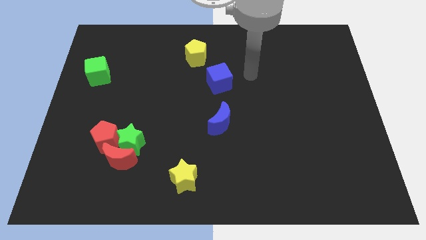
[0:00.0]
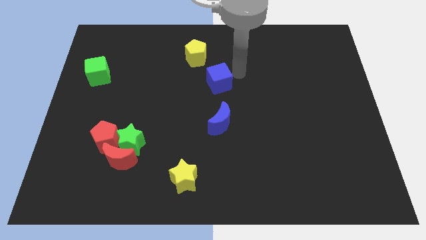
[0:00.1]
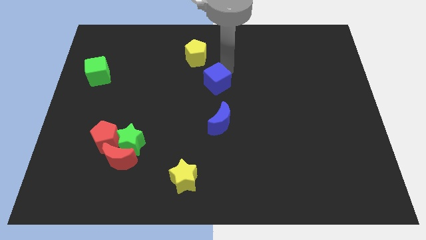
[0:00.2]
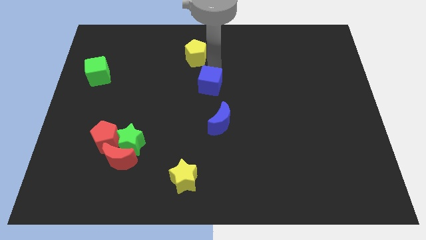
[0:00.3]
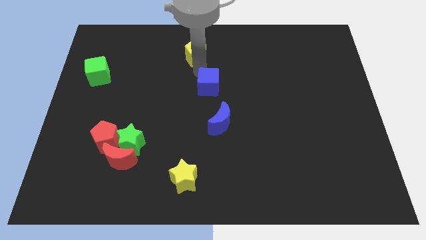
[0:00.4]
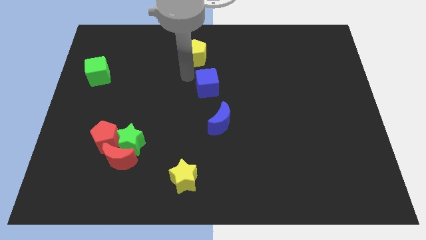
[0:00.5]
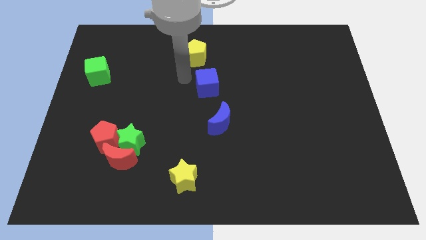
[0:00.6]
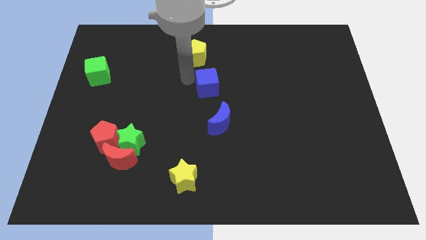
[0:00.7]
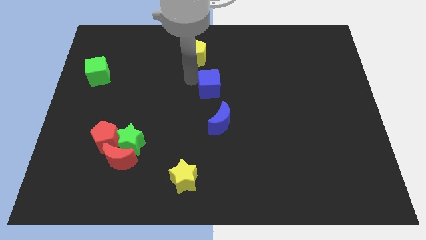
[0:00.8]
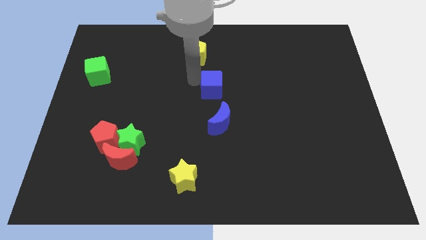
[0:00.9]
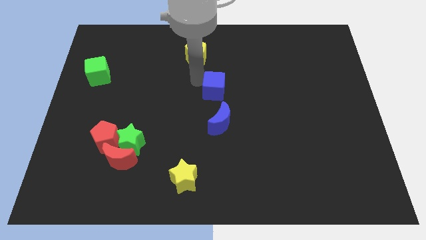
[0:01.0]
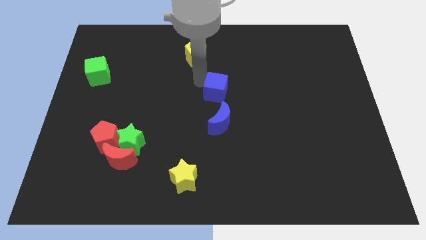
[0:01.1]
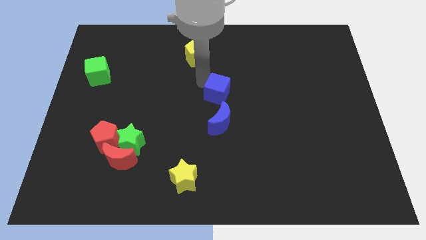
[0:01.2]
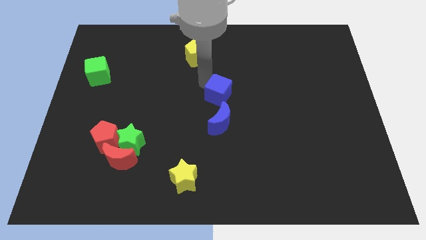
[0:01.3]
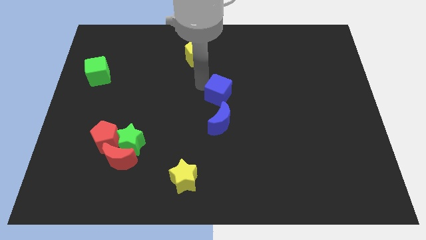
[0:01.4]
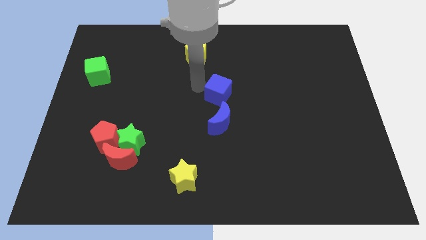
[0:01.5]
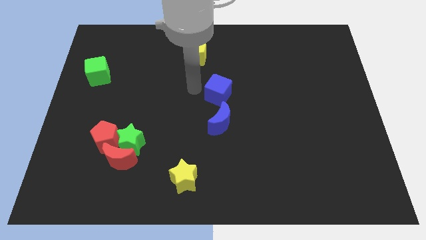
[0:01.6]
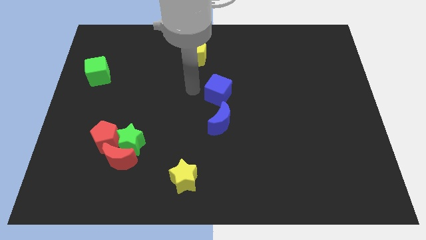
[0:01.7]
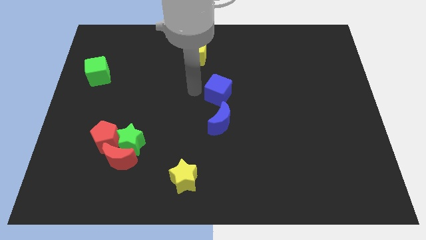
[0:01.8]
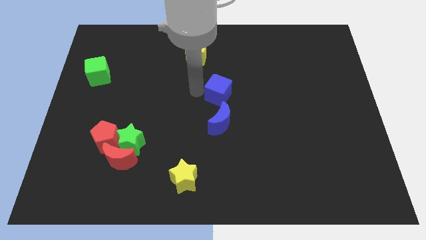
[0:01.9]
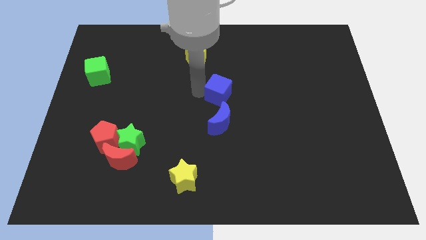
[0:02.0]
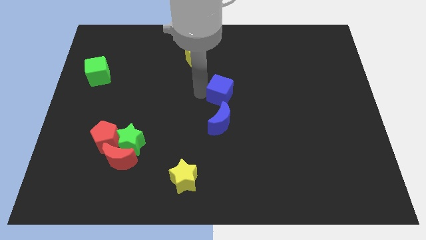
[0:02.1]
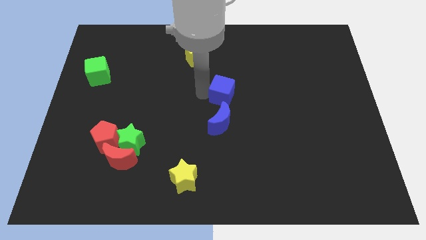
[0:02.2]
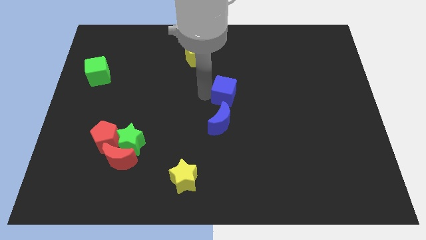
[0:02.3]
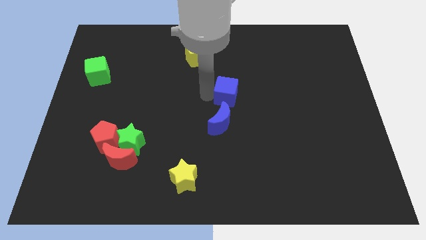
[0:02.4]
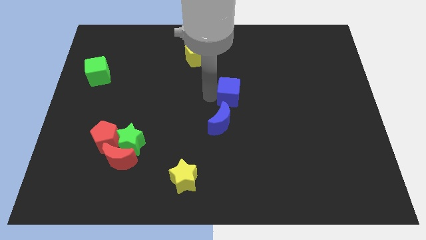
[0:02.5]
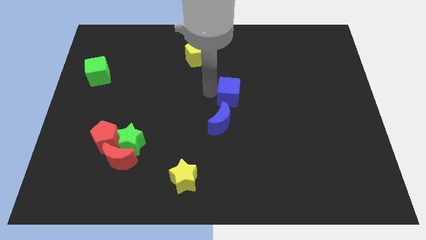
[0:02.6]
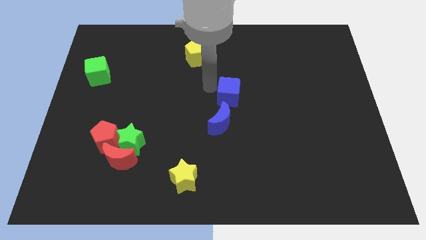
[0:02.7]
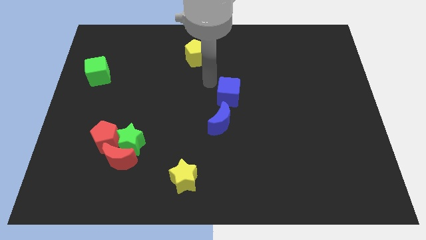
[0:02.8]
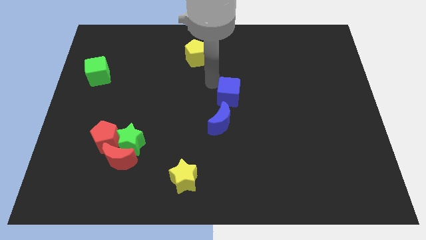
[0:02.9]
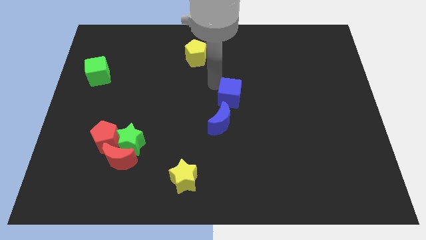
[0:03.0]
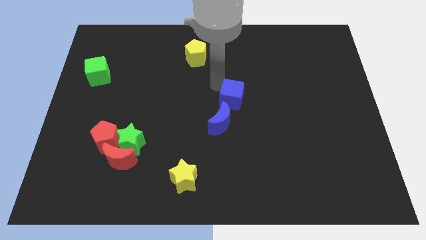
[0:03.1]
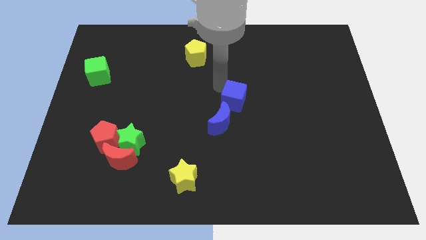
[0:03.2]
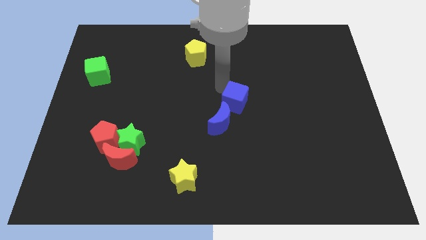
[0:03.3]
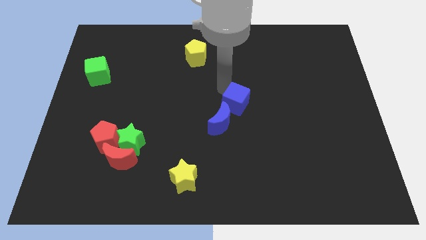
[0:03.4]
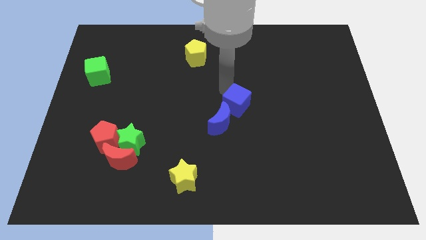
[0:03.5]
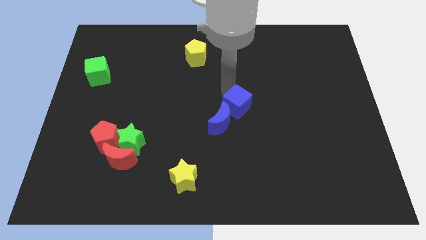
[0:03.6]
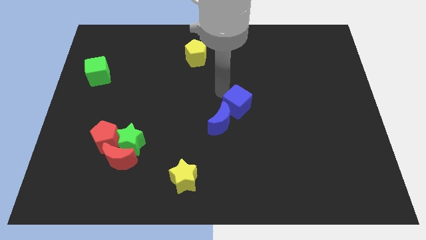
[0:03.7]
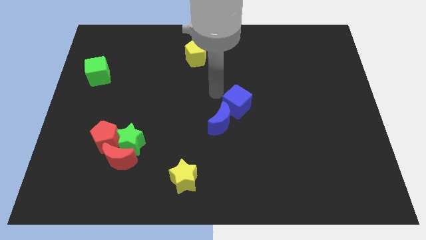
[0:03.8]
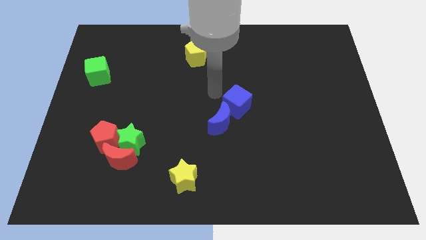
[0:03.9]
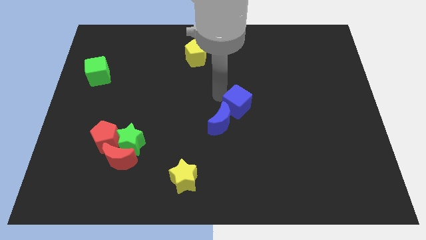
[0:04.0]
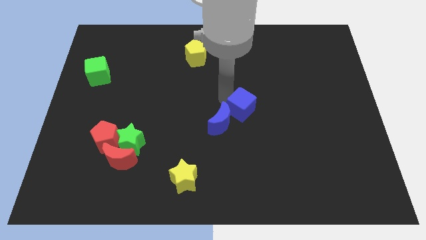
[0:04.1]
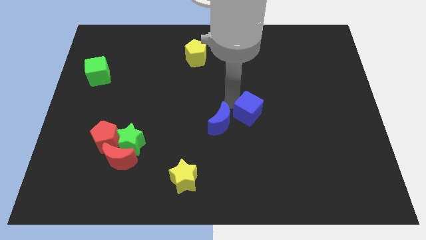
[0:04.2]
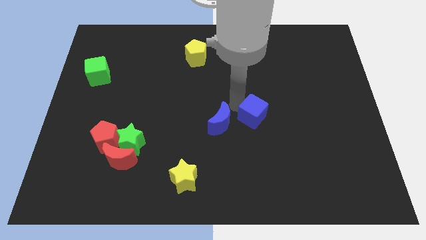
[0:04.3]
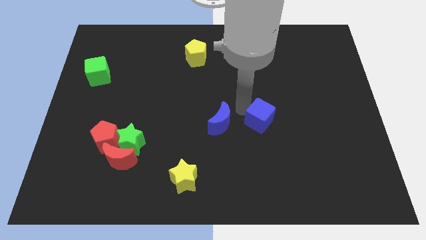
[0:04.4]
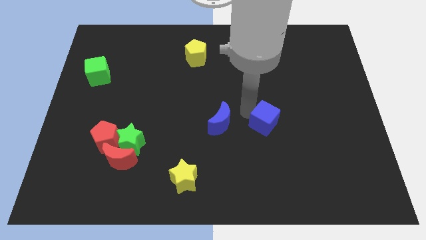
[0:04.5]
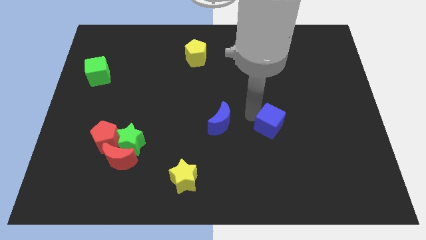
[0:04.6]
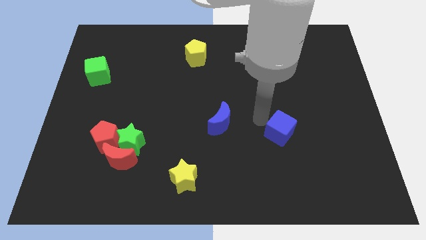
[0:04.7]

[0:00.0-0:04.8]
move the blue cube diagonally down and to the right

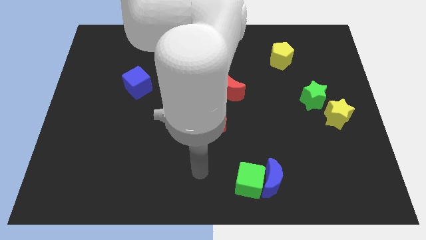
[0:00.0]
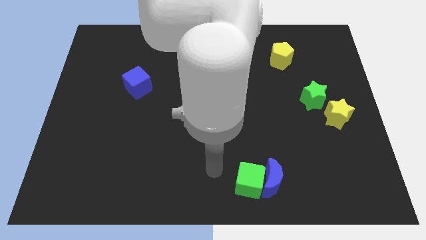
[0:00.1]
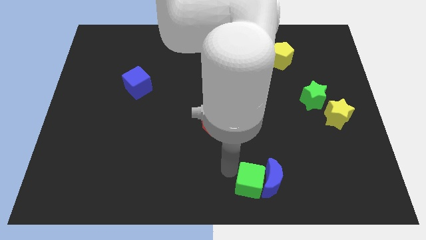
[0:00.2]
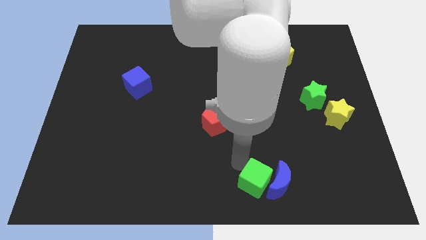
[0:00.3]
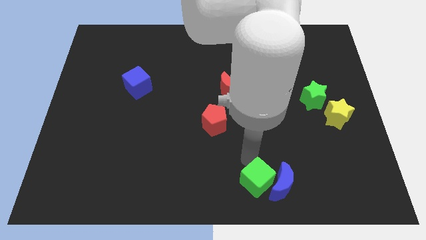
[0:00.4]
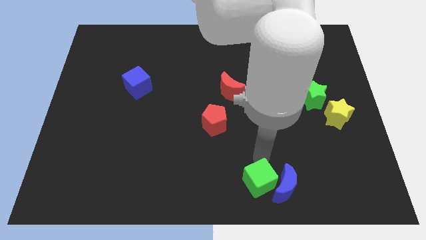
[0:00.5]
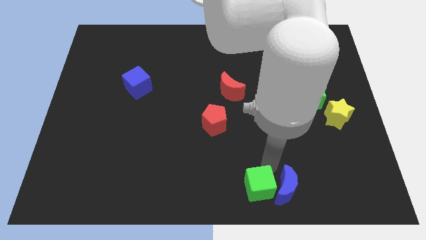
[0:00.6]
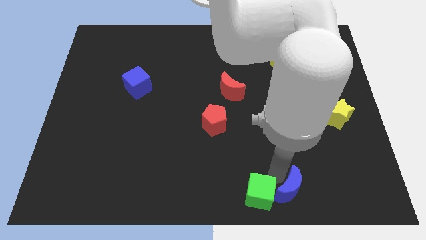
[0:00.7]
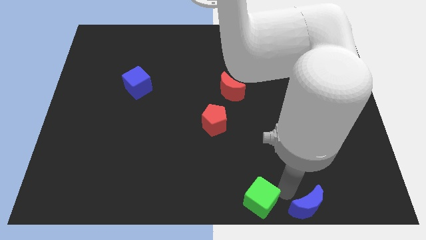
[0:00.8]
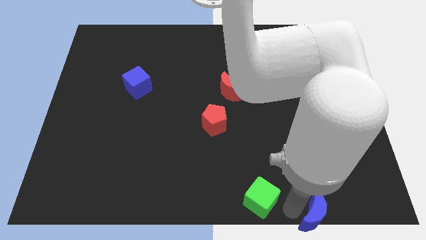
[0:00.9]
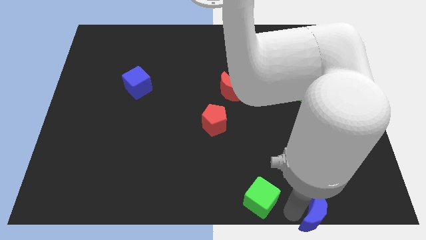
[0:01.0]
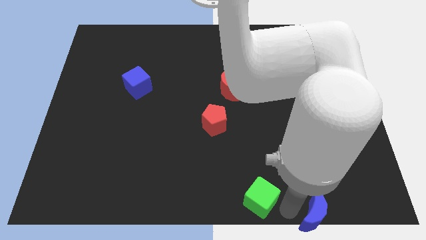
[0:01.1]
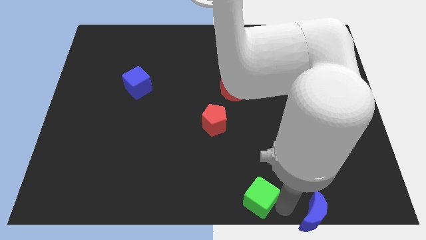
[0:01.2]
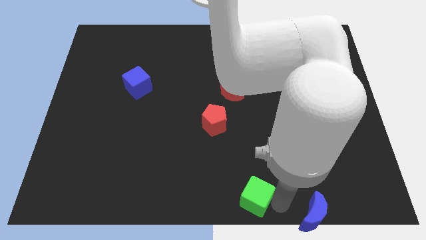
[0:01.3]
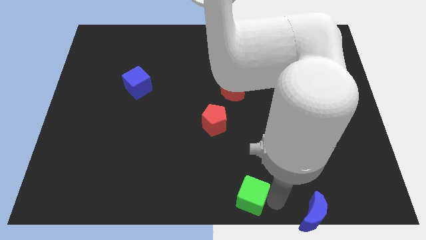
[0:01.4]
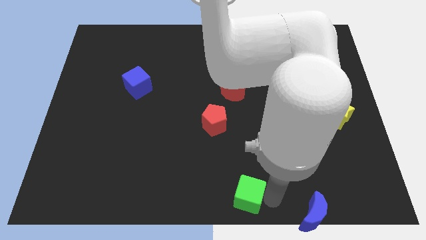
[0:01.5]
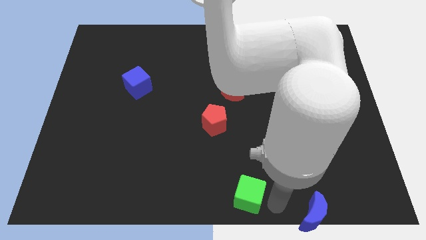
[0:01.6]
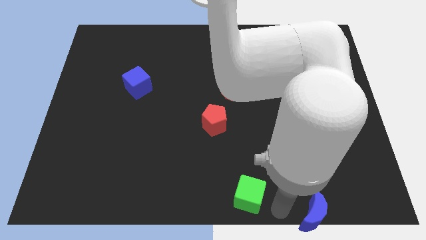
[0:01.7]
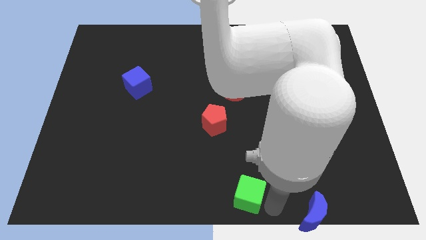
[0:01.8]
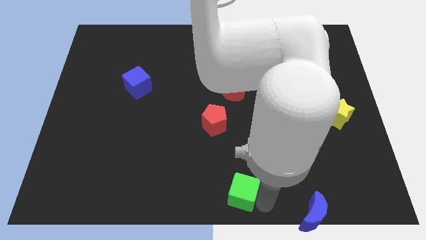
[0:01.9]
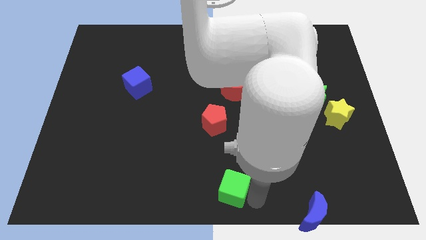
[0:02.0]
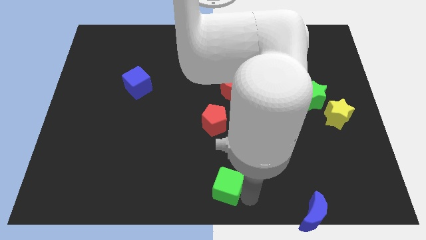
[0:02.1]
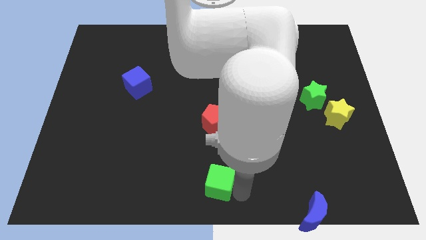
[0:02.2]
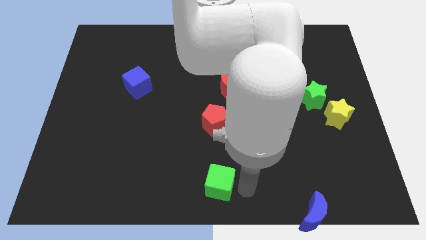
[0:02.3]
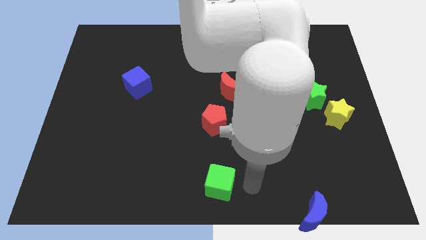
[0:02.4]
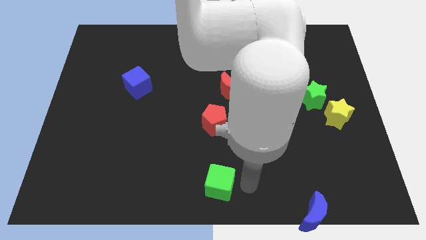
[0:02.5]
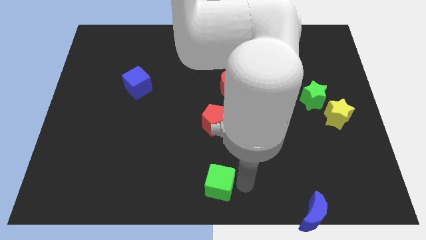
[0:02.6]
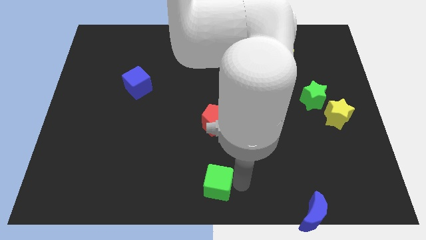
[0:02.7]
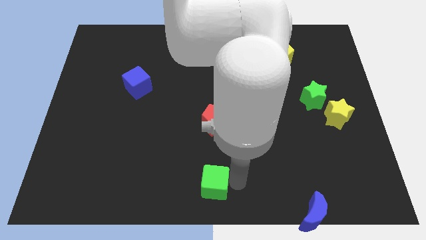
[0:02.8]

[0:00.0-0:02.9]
push the green cube a little bit left

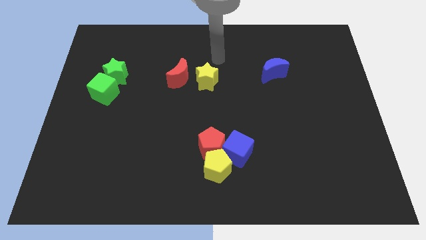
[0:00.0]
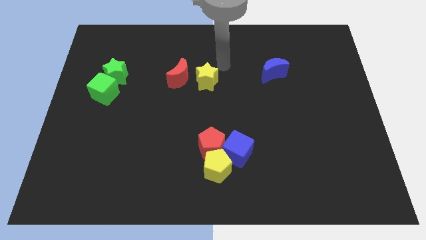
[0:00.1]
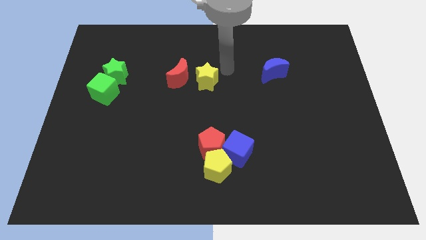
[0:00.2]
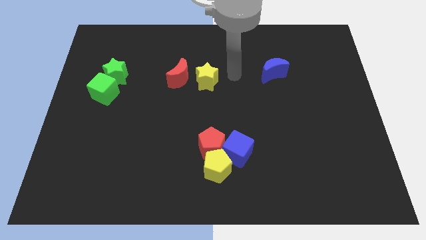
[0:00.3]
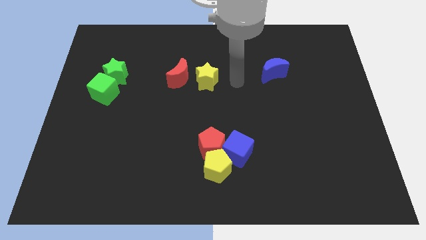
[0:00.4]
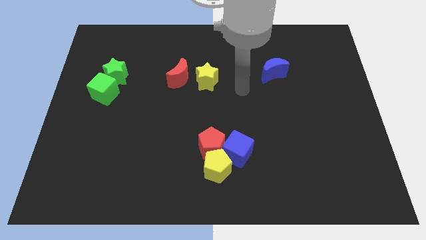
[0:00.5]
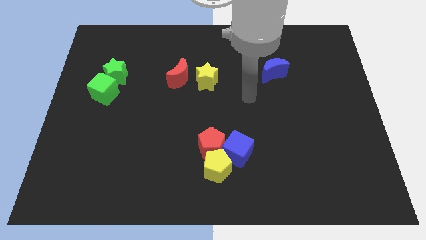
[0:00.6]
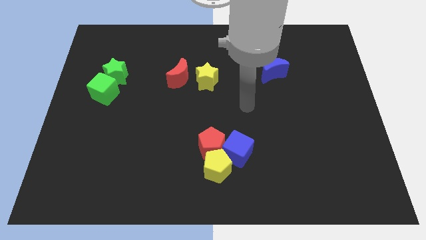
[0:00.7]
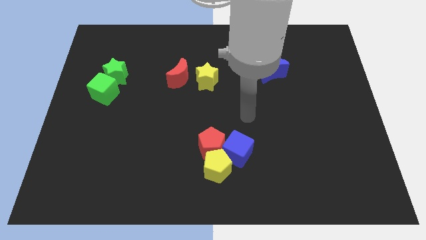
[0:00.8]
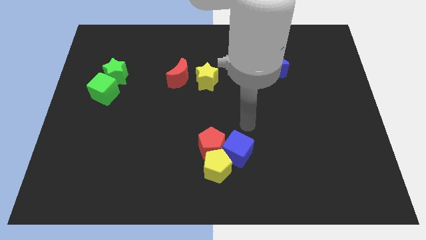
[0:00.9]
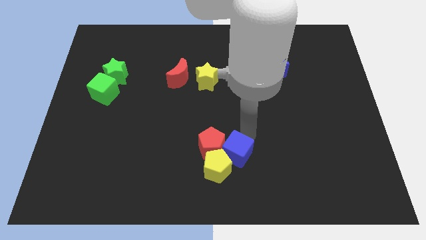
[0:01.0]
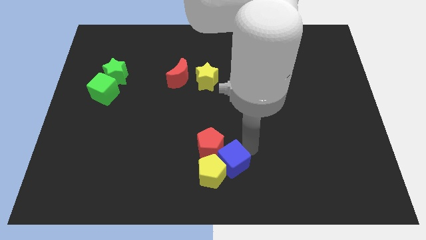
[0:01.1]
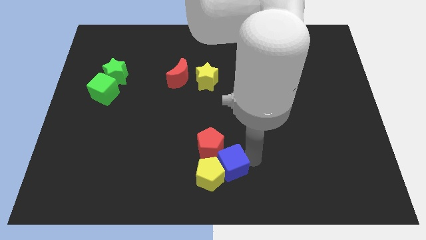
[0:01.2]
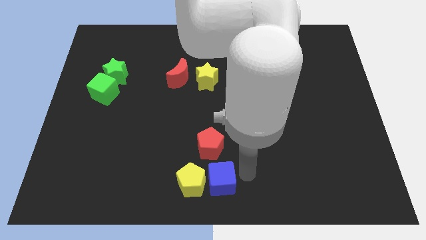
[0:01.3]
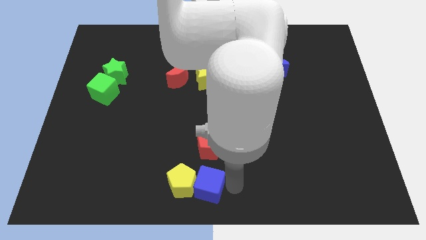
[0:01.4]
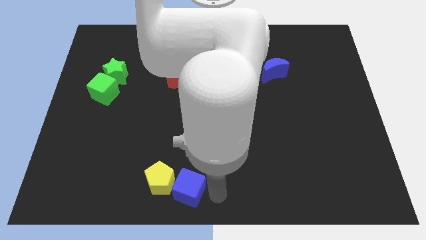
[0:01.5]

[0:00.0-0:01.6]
push the yellow pentagon left a little
